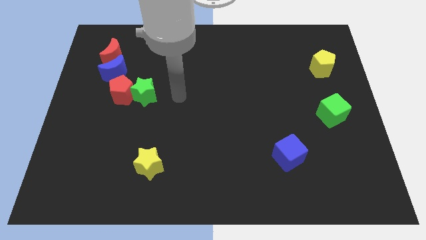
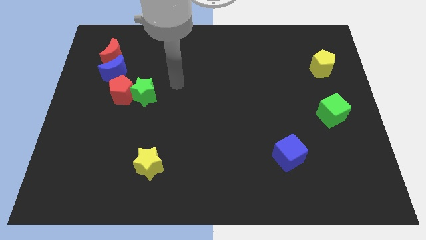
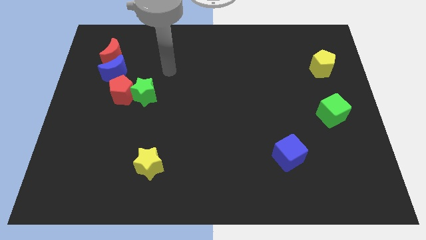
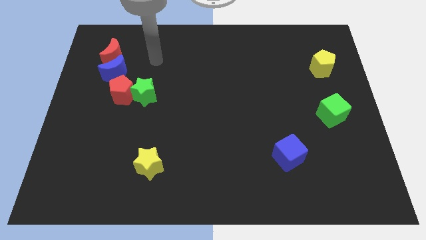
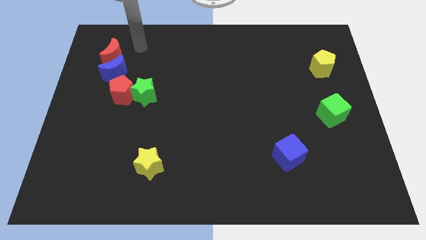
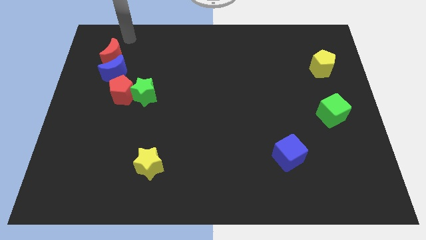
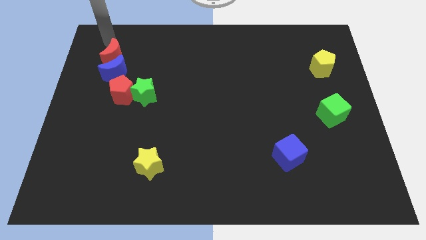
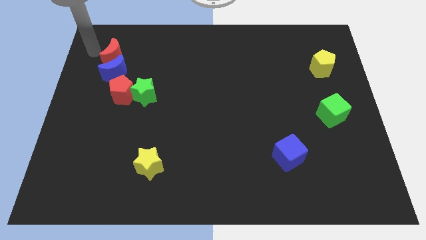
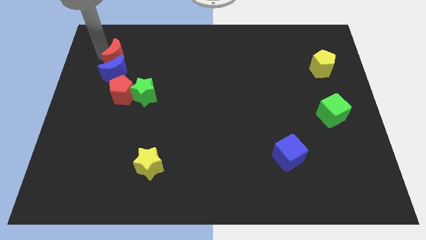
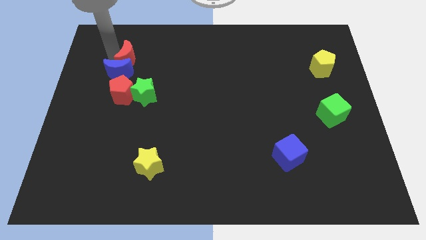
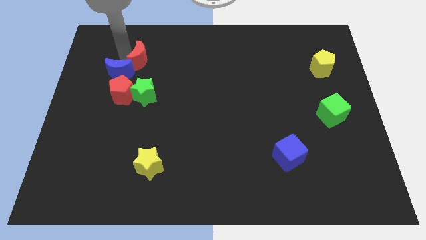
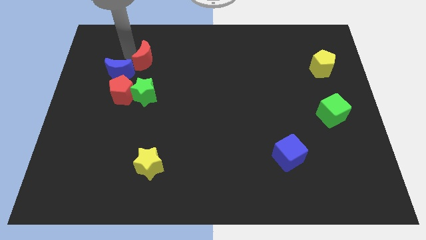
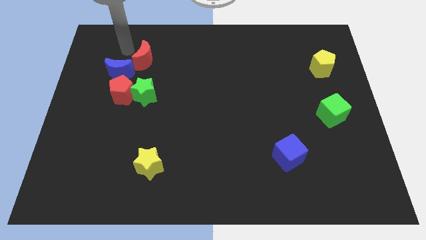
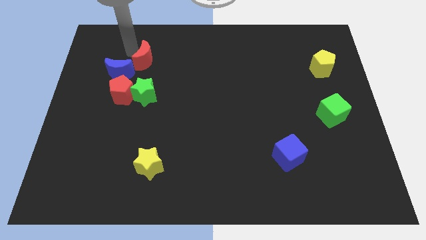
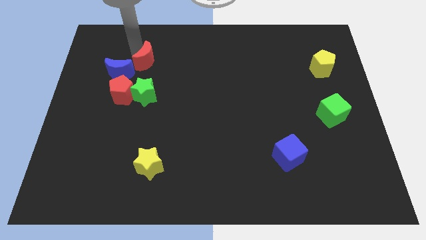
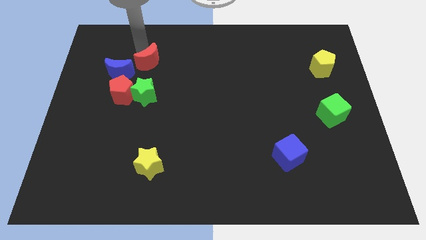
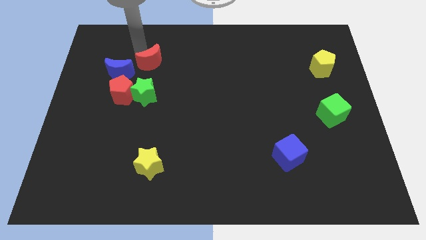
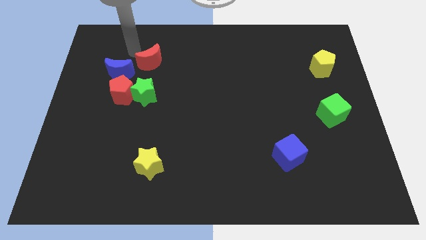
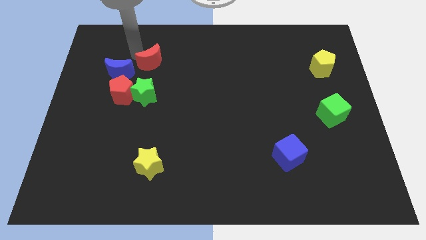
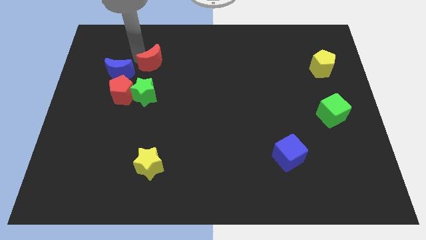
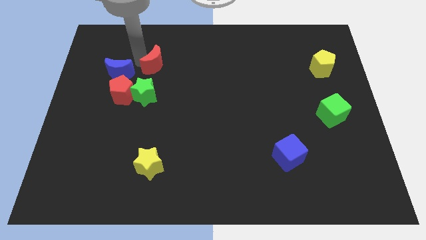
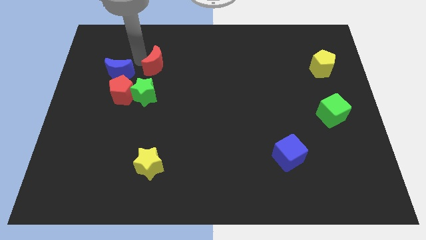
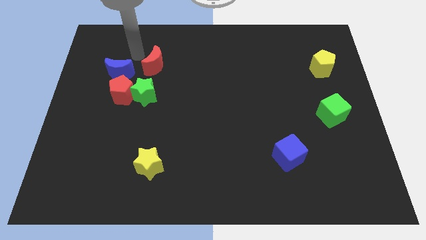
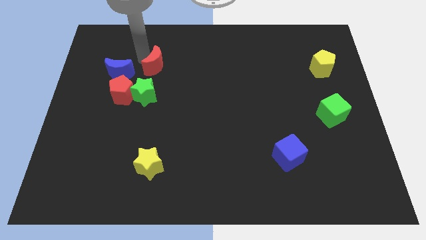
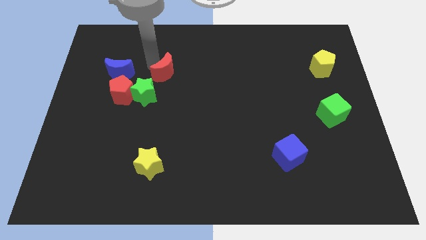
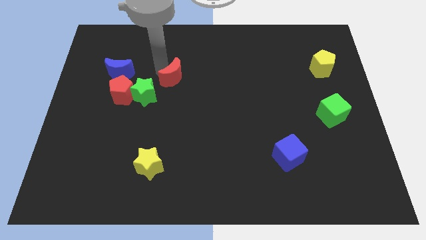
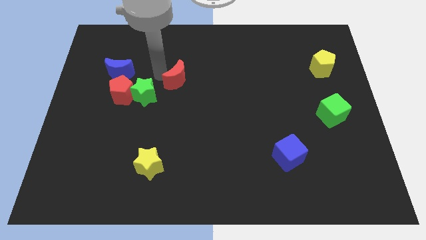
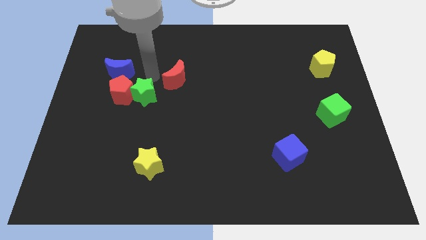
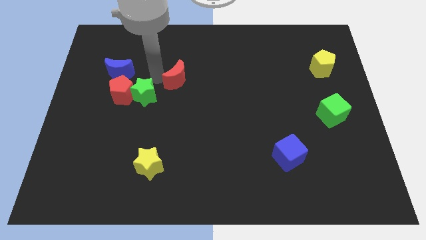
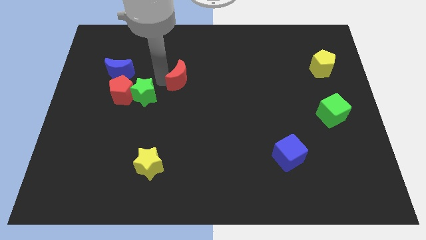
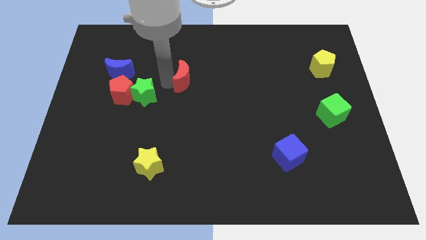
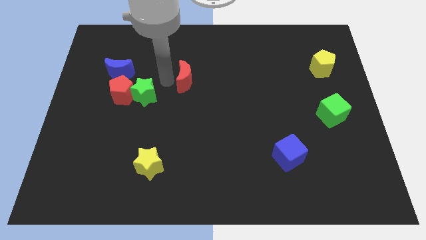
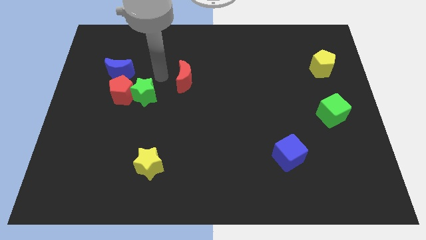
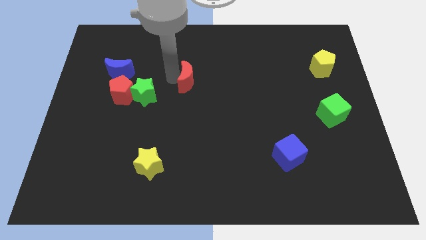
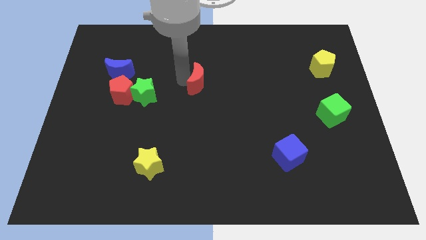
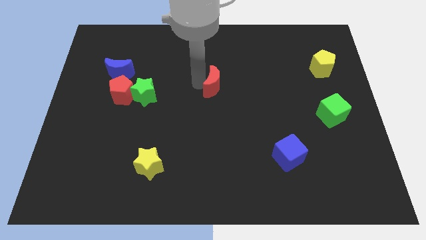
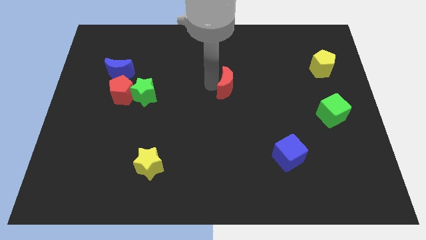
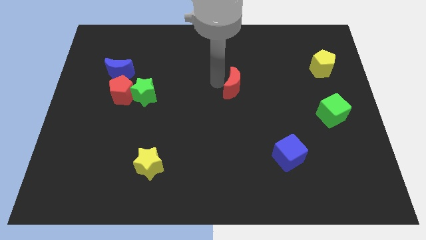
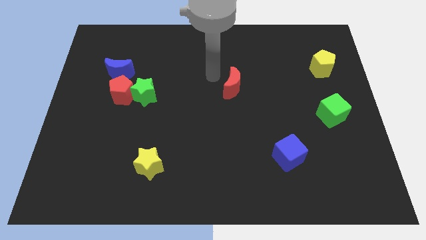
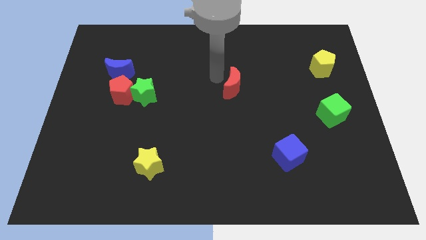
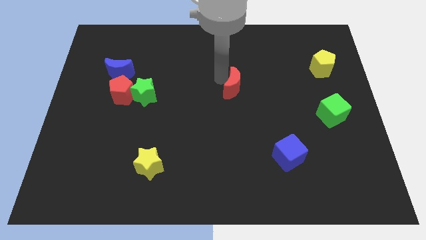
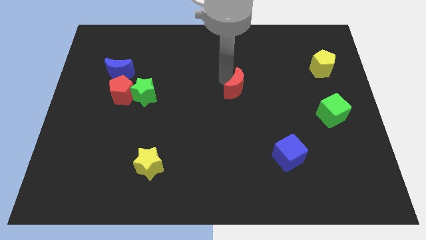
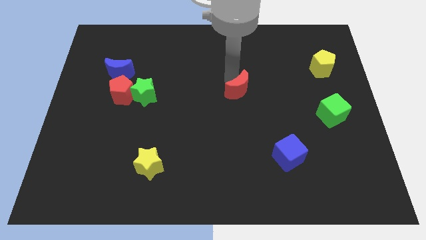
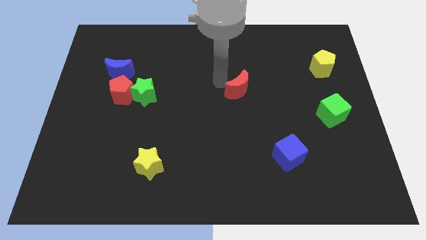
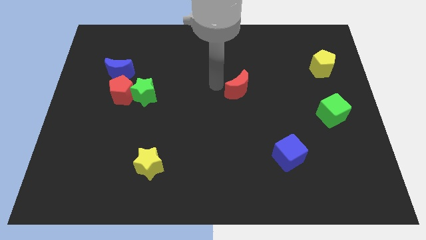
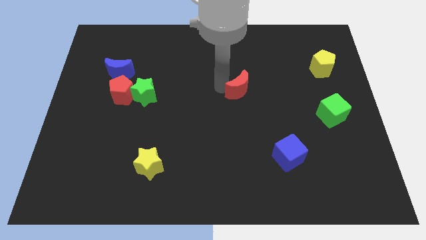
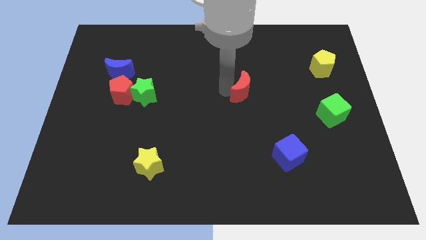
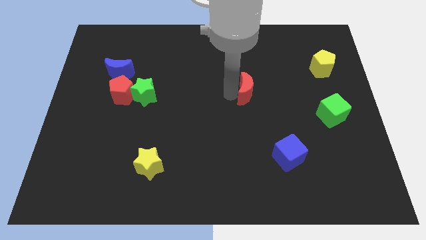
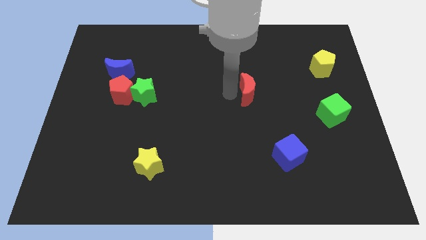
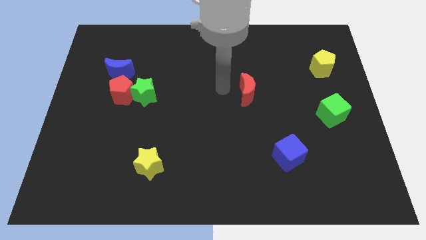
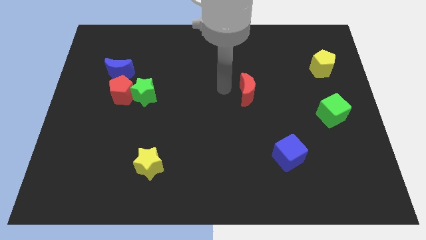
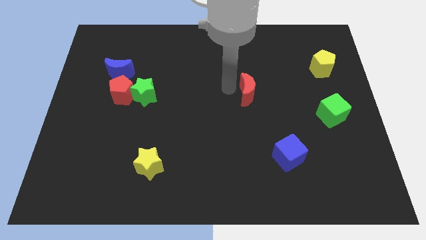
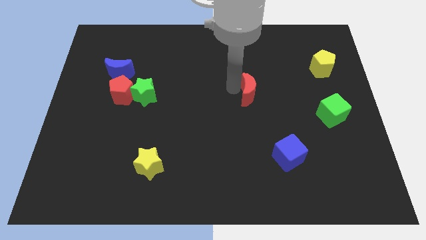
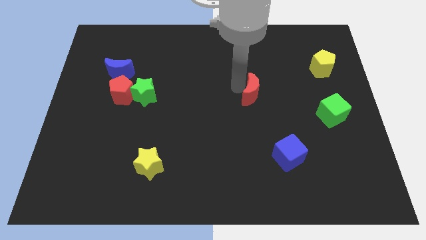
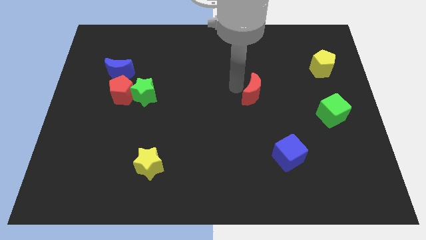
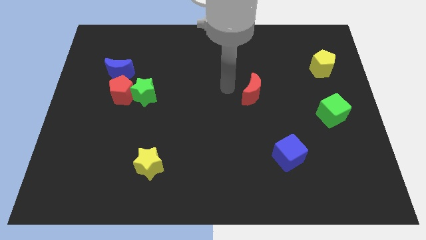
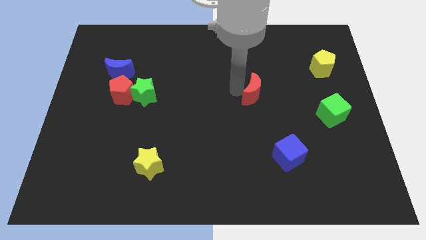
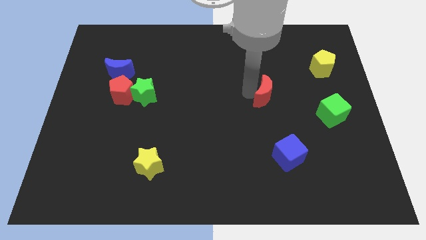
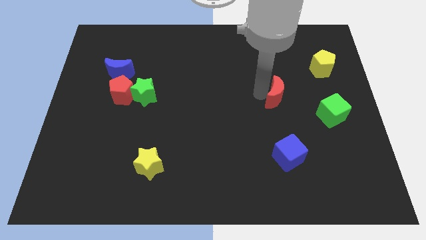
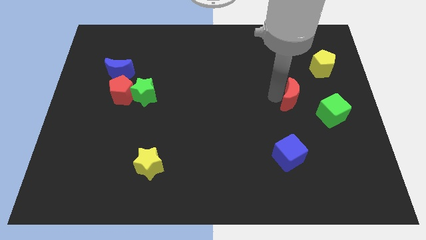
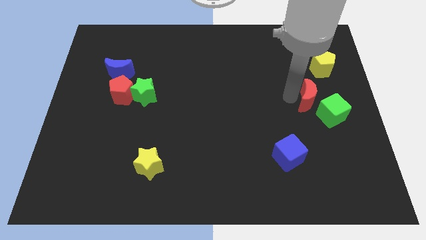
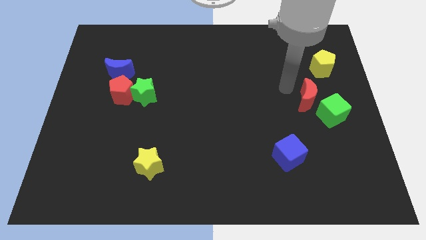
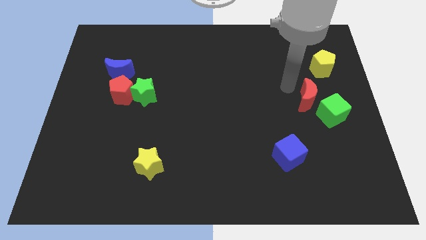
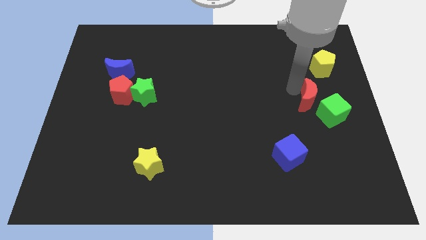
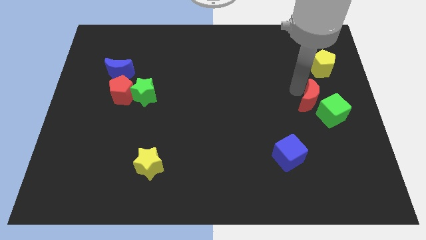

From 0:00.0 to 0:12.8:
slide the red moon to the green cube

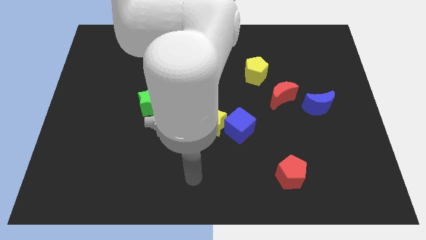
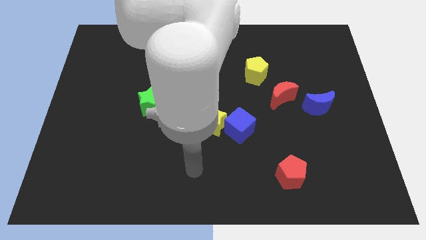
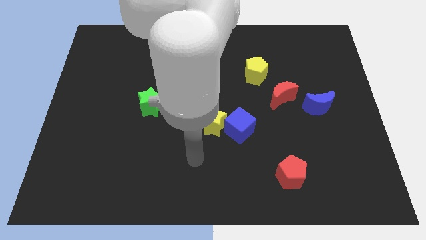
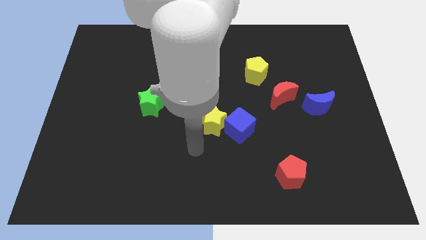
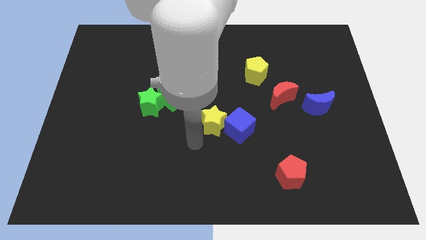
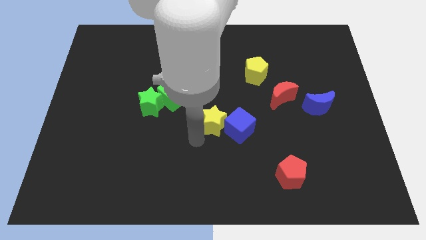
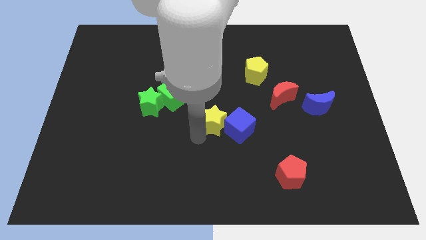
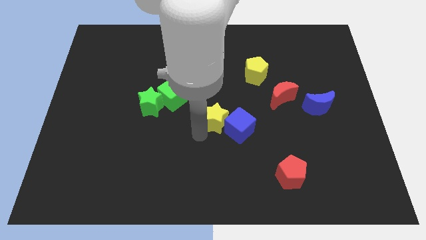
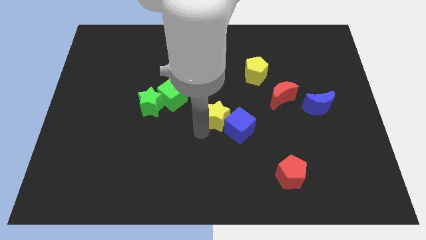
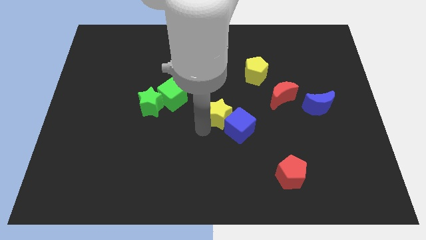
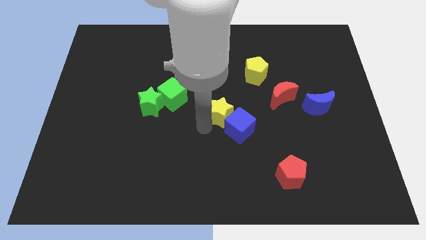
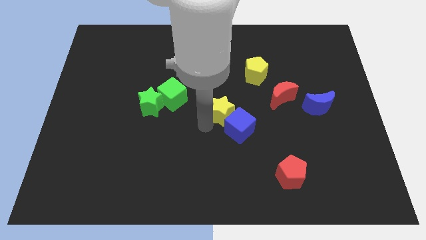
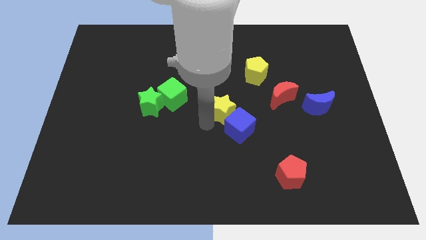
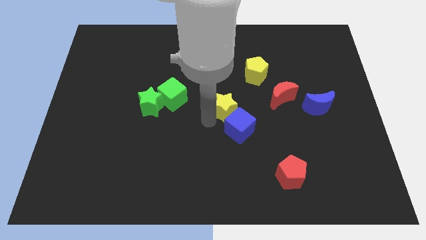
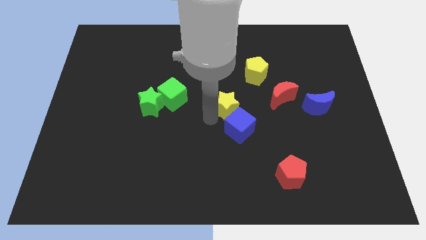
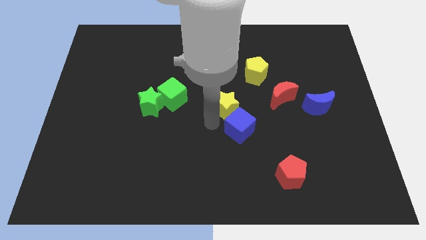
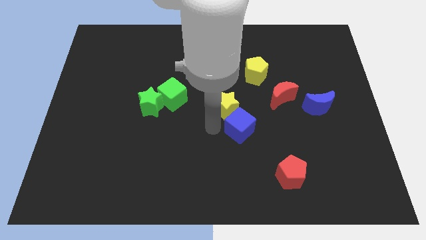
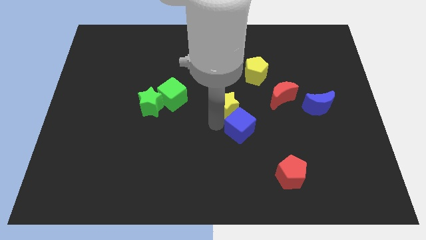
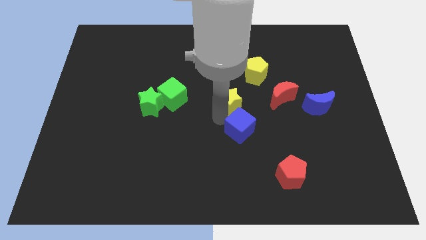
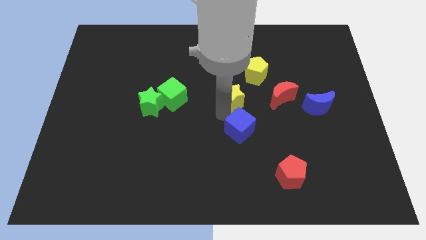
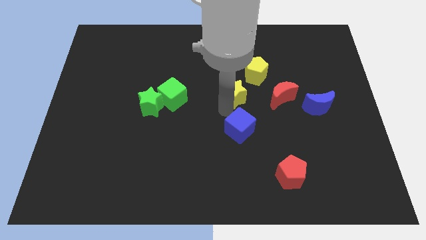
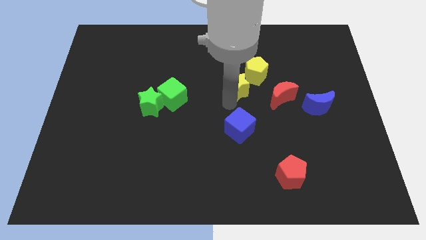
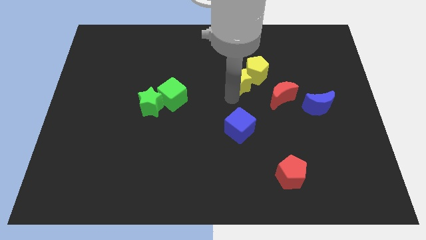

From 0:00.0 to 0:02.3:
move the yellow star to the yellow pentagon
